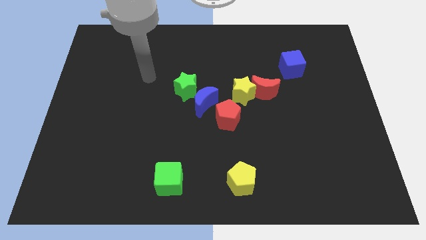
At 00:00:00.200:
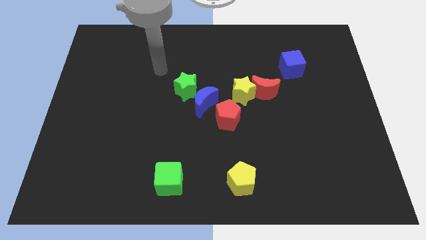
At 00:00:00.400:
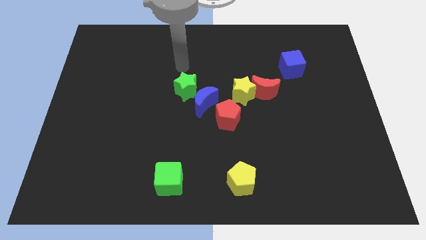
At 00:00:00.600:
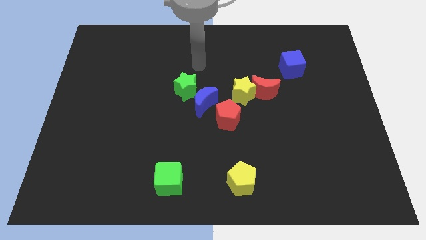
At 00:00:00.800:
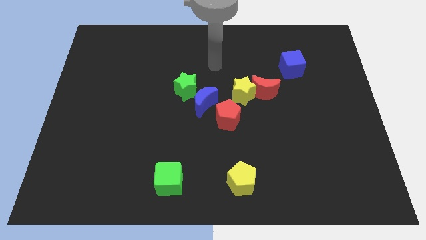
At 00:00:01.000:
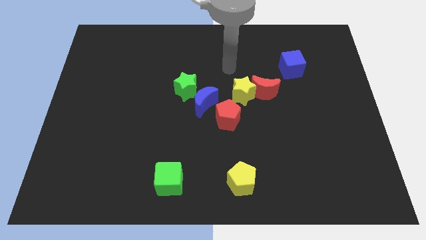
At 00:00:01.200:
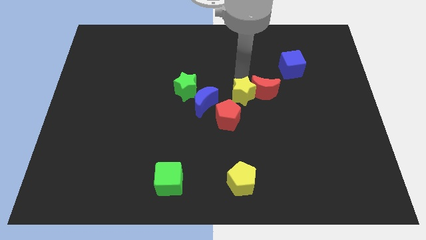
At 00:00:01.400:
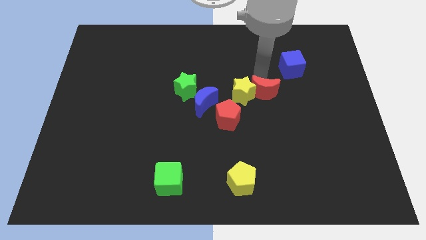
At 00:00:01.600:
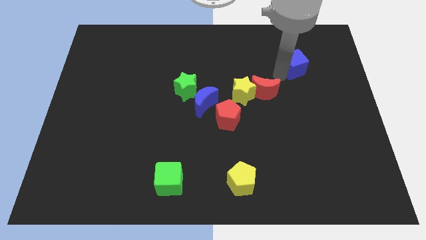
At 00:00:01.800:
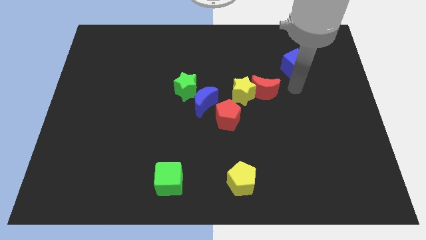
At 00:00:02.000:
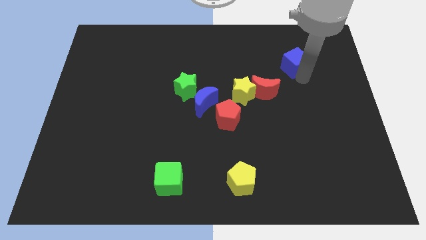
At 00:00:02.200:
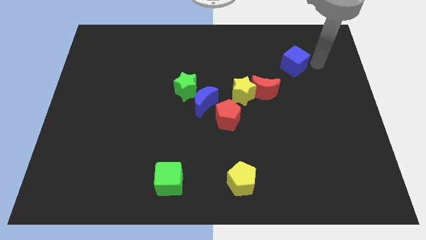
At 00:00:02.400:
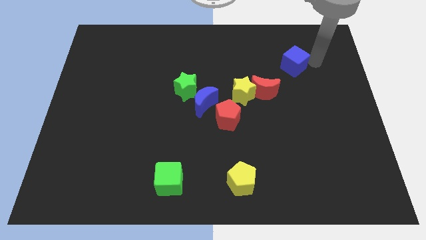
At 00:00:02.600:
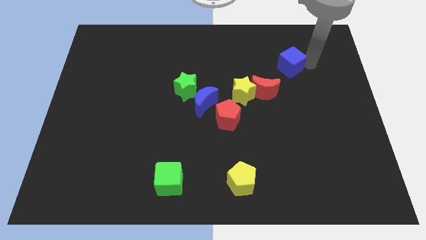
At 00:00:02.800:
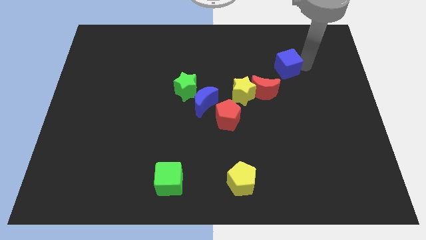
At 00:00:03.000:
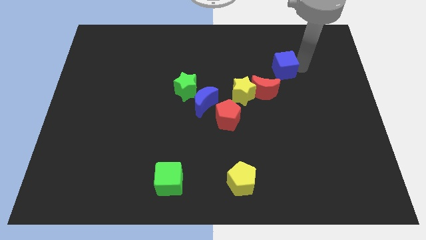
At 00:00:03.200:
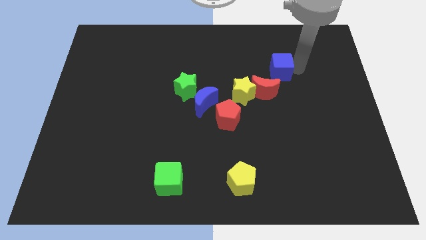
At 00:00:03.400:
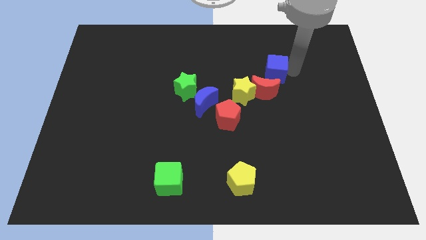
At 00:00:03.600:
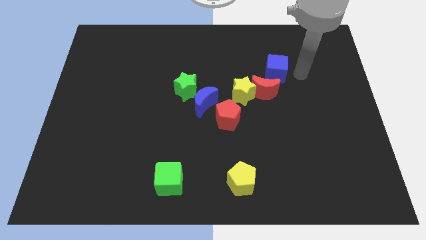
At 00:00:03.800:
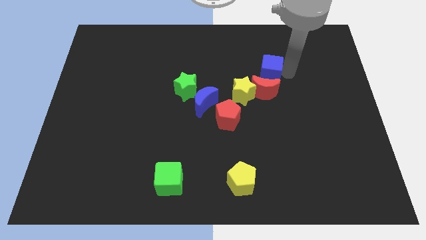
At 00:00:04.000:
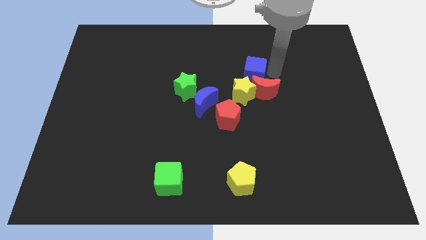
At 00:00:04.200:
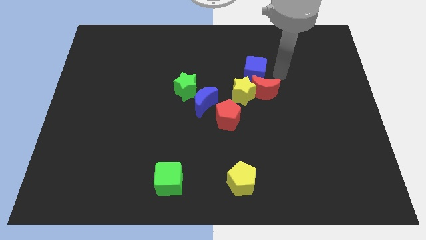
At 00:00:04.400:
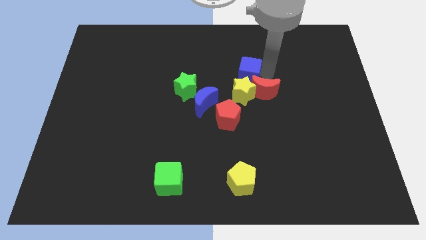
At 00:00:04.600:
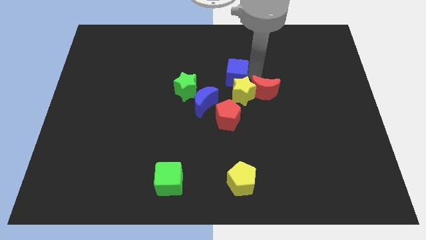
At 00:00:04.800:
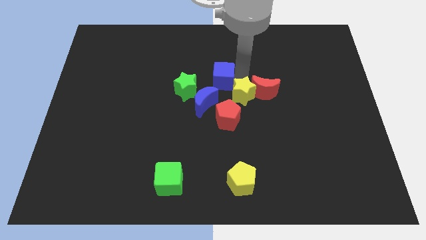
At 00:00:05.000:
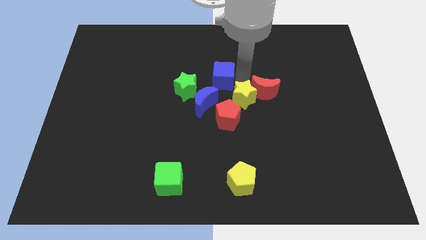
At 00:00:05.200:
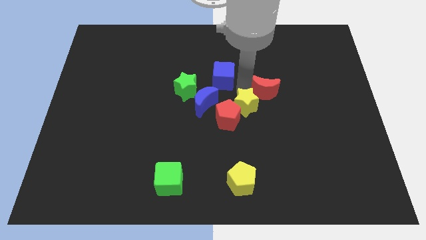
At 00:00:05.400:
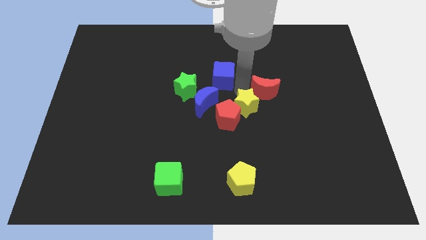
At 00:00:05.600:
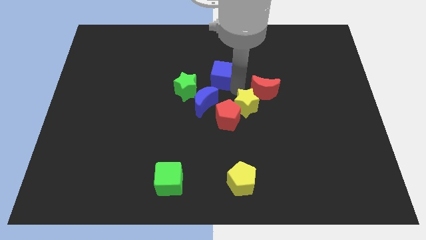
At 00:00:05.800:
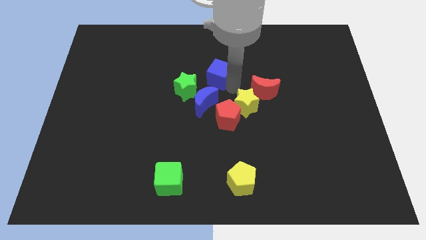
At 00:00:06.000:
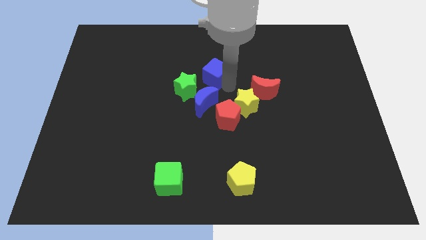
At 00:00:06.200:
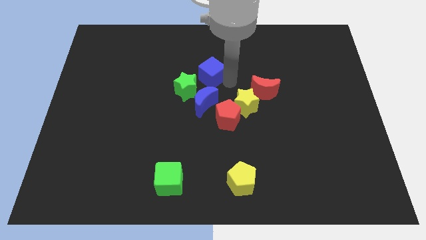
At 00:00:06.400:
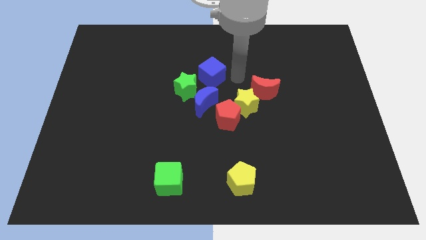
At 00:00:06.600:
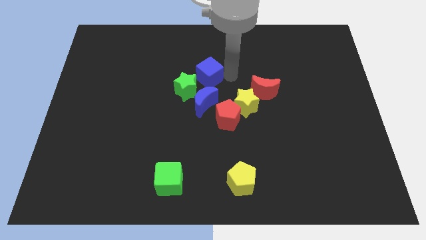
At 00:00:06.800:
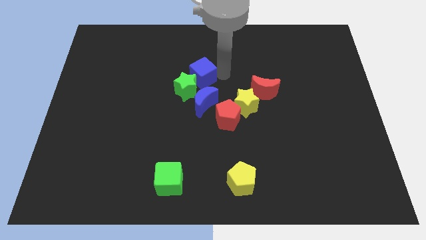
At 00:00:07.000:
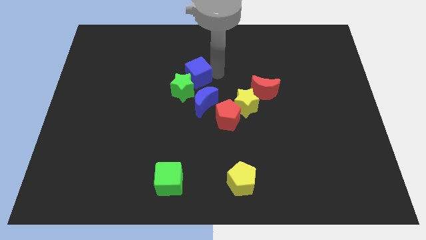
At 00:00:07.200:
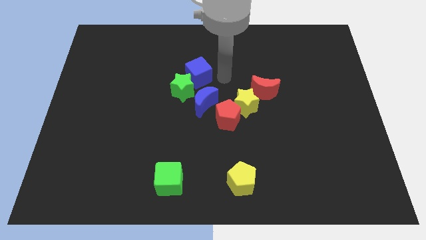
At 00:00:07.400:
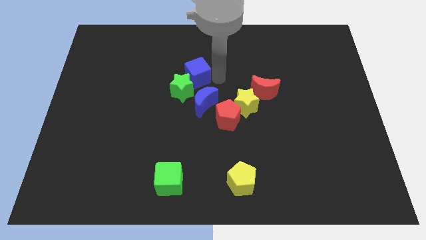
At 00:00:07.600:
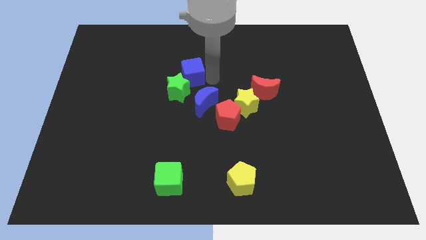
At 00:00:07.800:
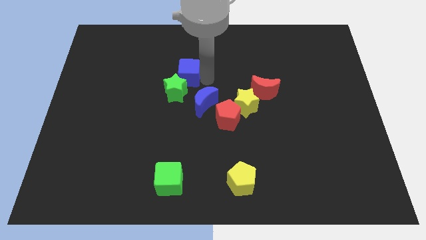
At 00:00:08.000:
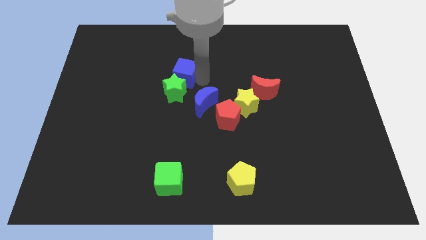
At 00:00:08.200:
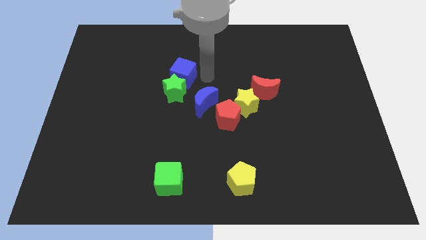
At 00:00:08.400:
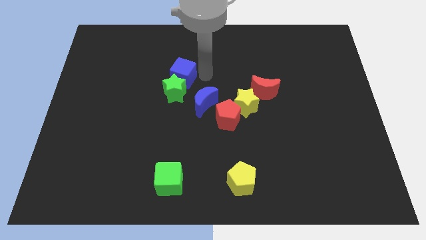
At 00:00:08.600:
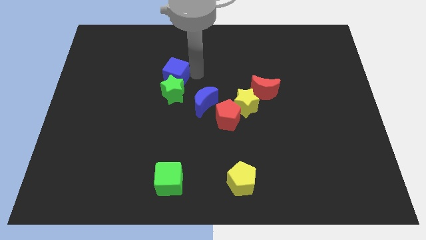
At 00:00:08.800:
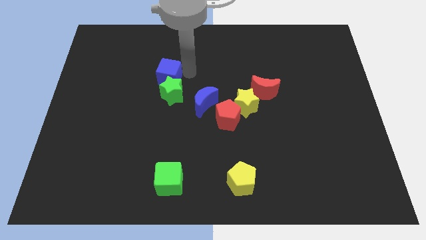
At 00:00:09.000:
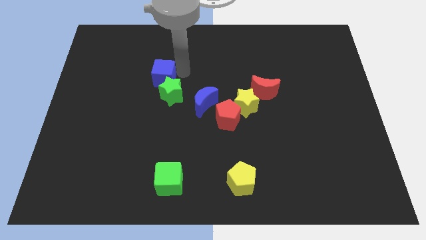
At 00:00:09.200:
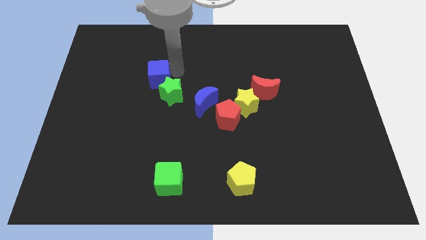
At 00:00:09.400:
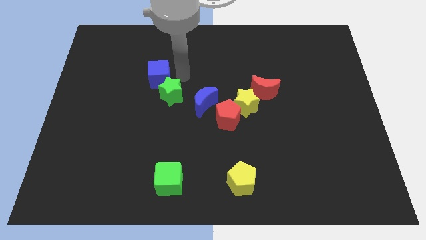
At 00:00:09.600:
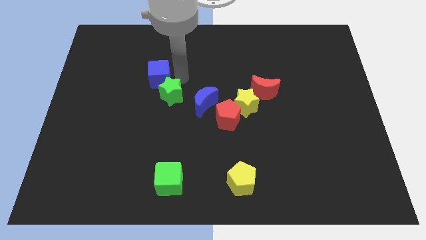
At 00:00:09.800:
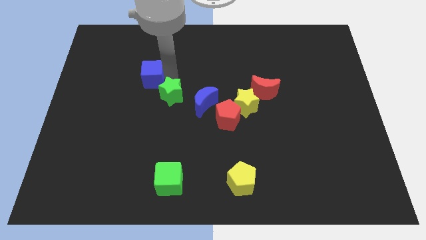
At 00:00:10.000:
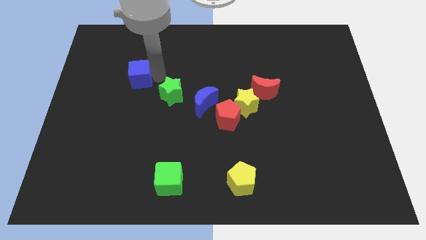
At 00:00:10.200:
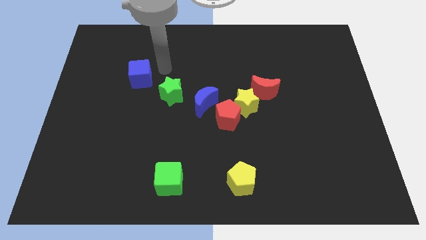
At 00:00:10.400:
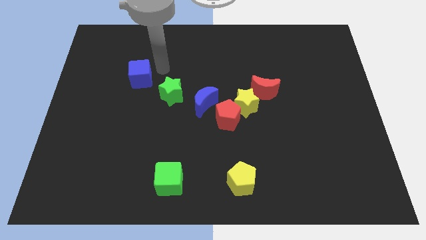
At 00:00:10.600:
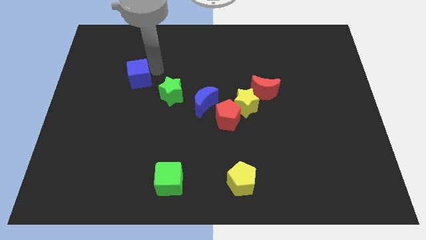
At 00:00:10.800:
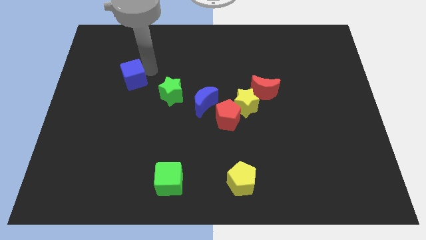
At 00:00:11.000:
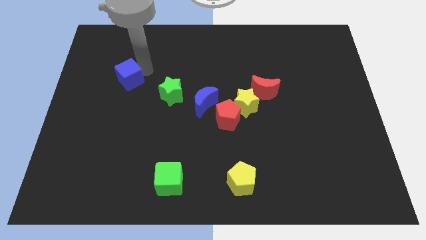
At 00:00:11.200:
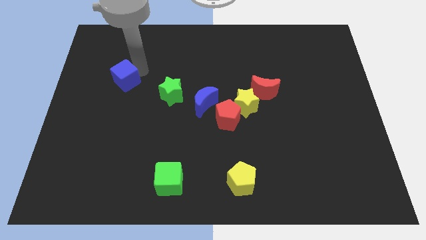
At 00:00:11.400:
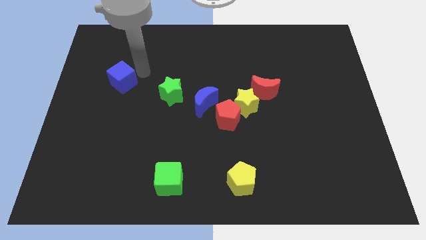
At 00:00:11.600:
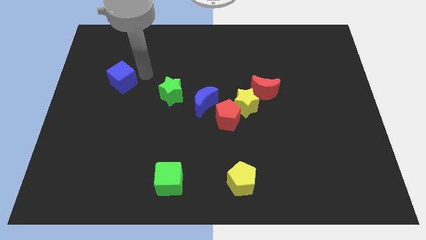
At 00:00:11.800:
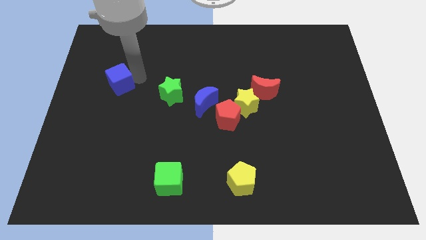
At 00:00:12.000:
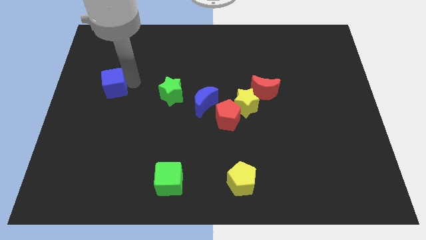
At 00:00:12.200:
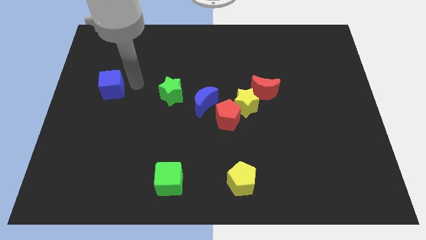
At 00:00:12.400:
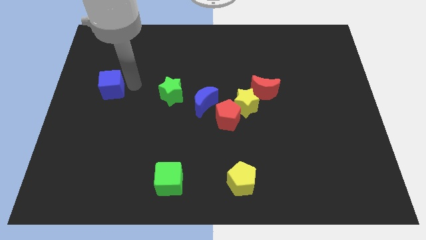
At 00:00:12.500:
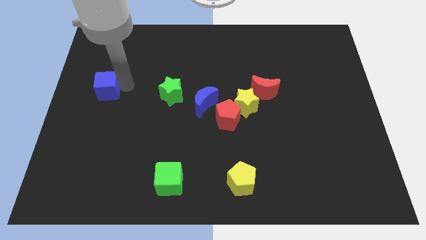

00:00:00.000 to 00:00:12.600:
slide the blue cube to the left side
